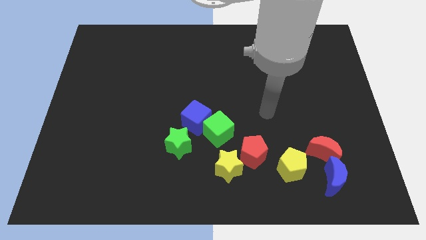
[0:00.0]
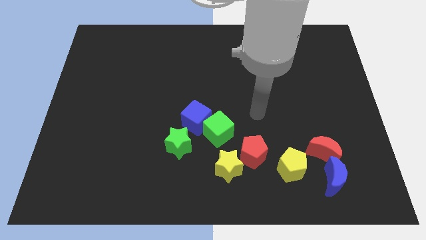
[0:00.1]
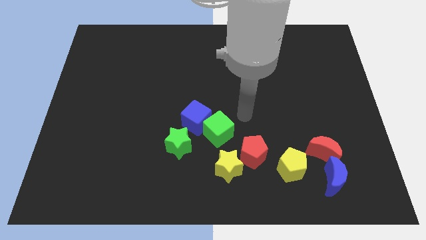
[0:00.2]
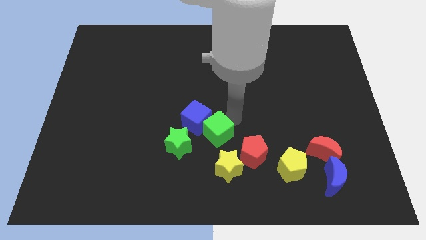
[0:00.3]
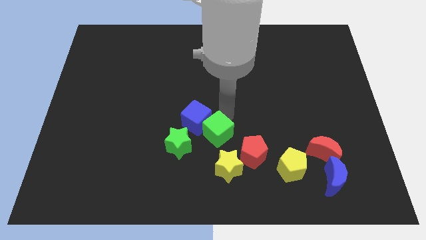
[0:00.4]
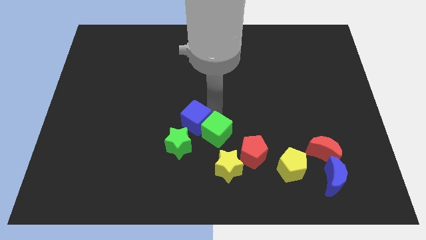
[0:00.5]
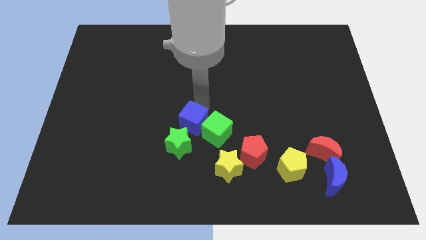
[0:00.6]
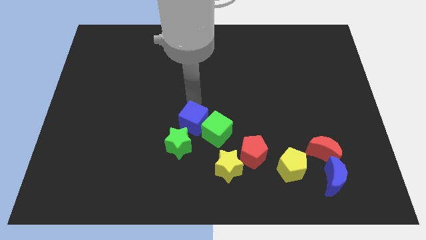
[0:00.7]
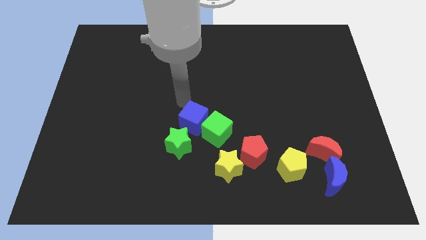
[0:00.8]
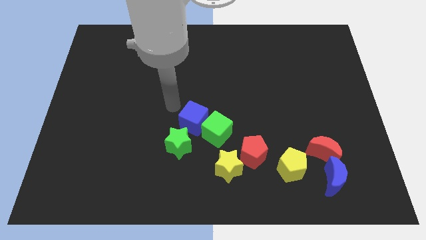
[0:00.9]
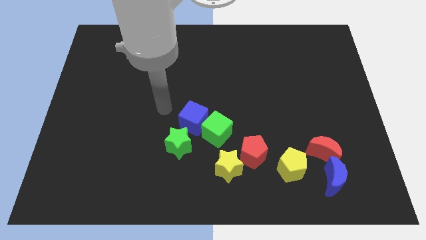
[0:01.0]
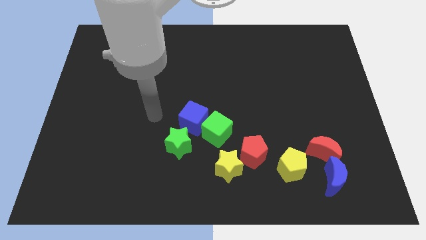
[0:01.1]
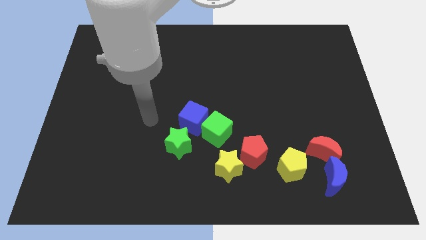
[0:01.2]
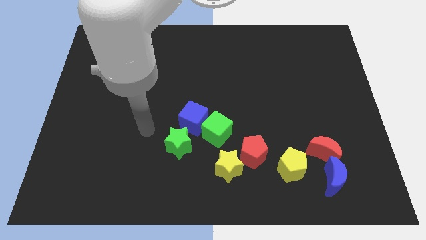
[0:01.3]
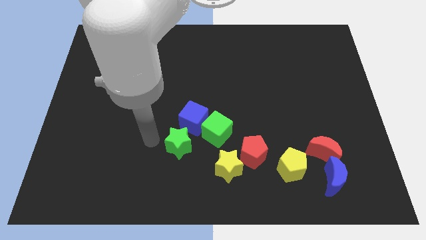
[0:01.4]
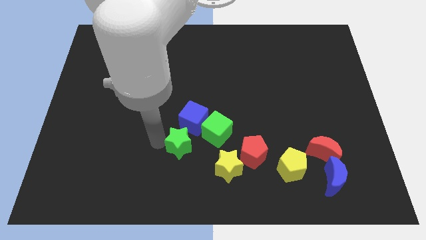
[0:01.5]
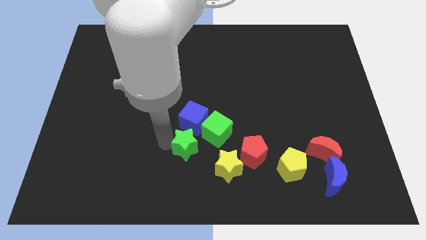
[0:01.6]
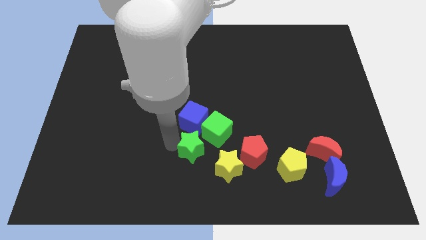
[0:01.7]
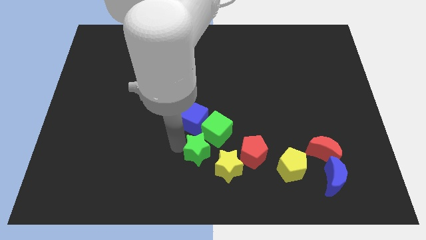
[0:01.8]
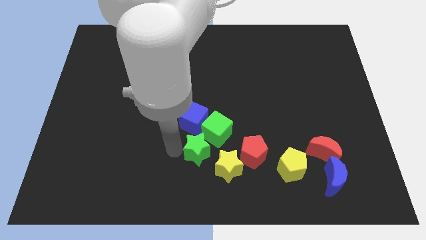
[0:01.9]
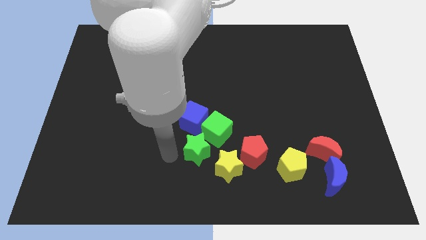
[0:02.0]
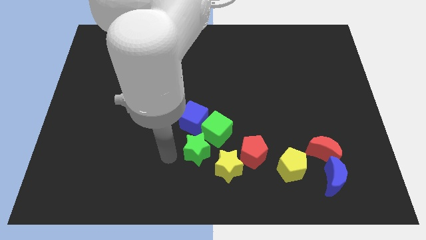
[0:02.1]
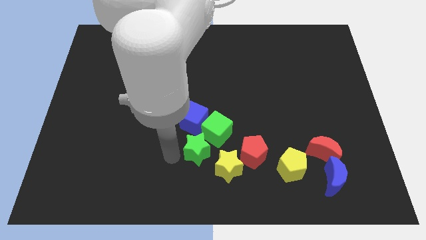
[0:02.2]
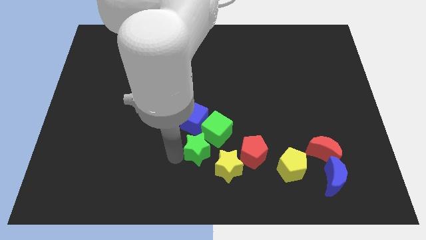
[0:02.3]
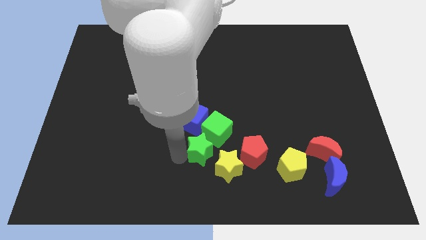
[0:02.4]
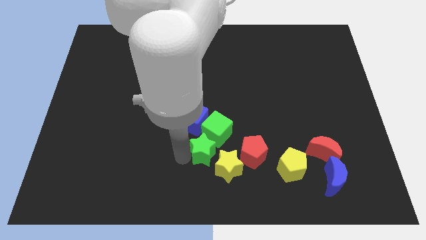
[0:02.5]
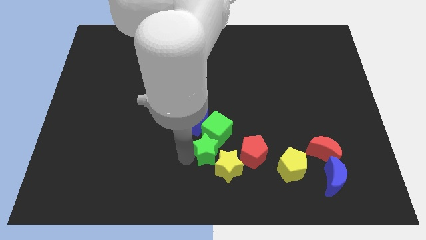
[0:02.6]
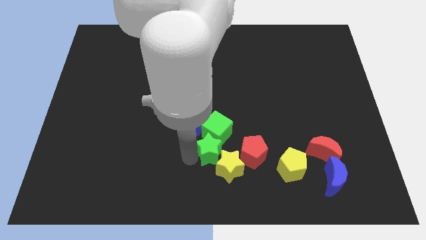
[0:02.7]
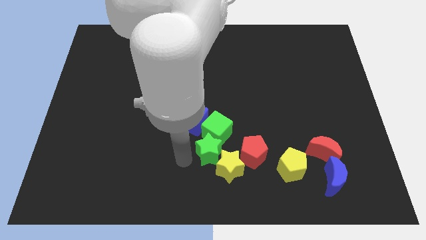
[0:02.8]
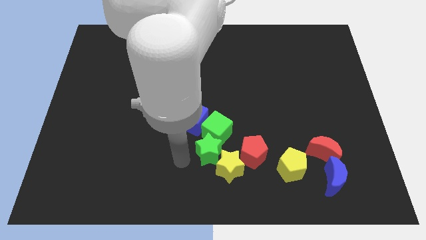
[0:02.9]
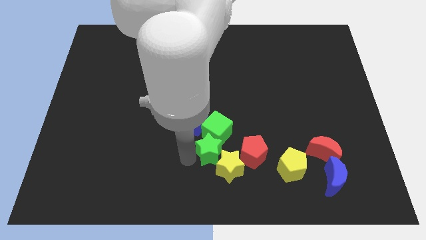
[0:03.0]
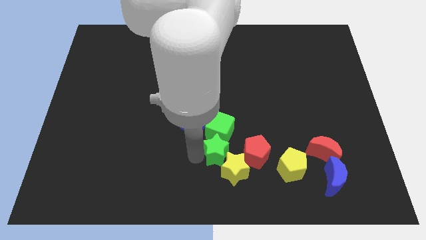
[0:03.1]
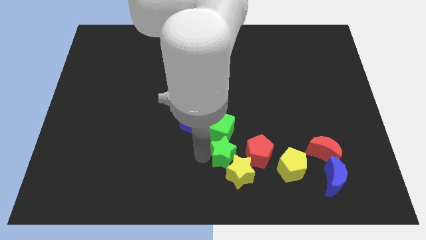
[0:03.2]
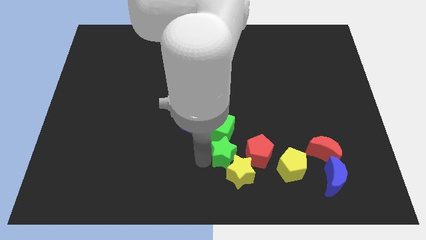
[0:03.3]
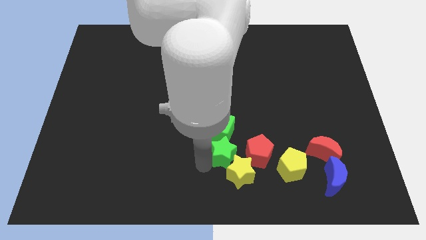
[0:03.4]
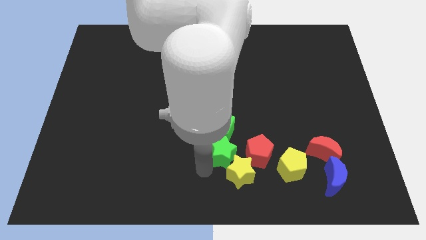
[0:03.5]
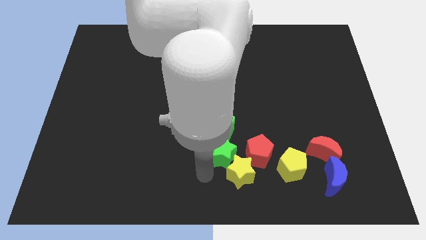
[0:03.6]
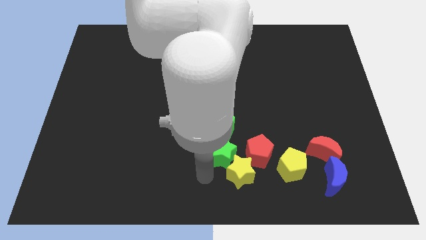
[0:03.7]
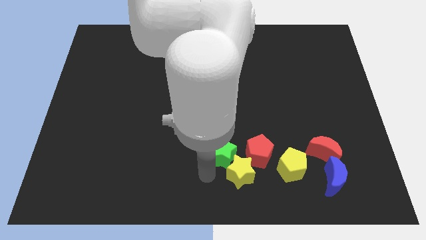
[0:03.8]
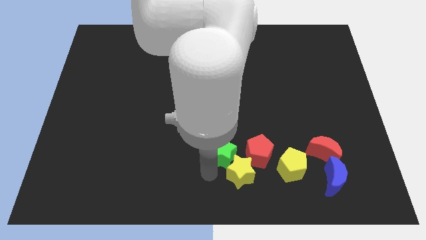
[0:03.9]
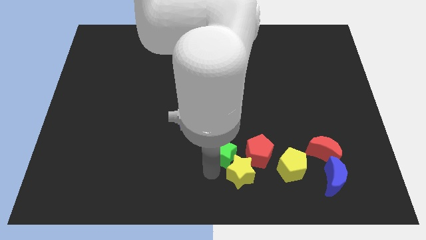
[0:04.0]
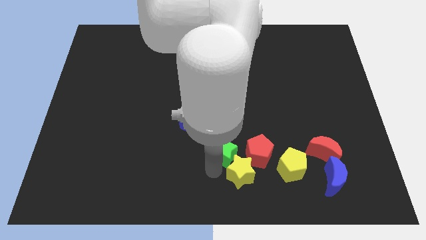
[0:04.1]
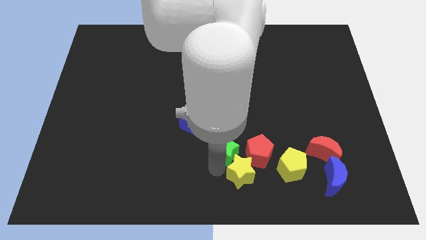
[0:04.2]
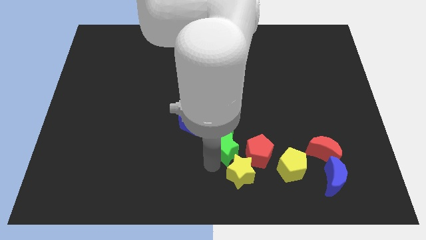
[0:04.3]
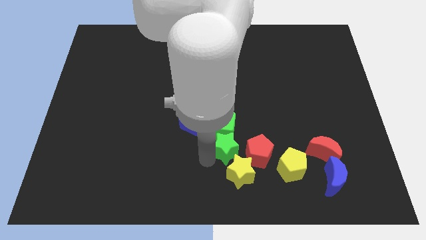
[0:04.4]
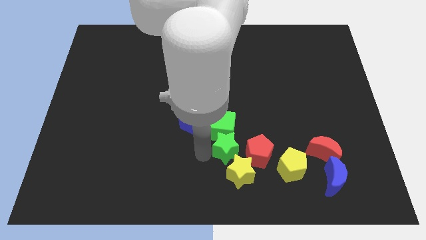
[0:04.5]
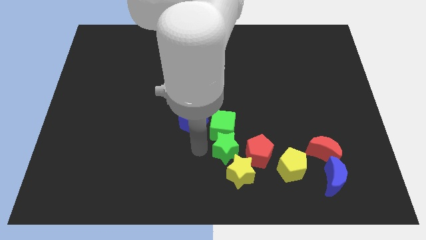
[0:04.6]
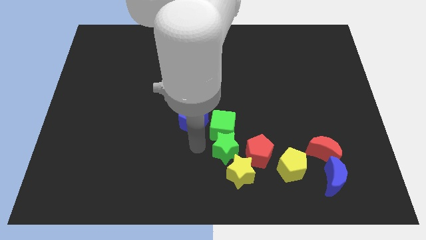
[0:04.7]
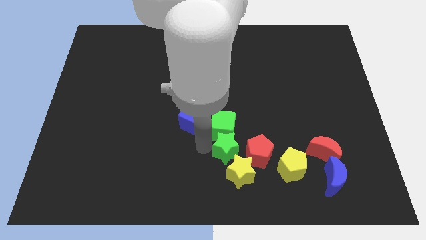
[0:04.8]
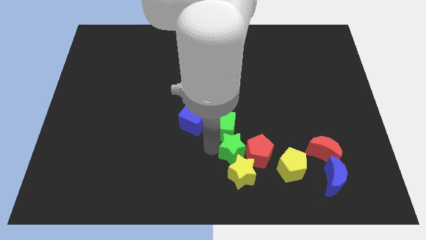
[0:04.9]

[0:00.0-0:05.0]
move the green star next to the red pentagon
